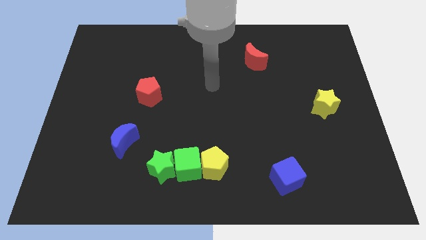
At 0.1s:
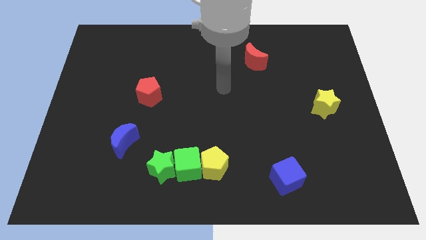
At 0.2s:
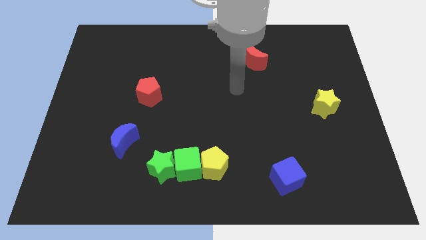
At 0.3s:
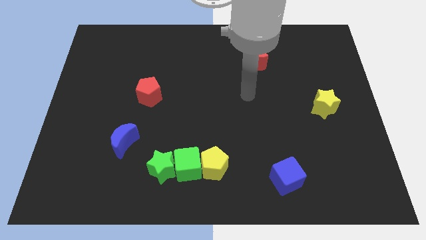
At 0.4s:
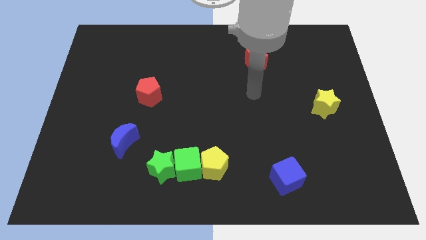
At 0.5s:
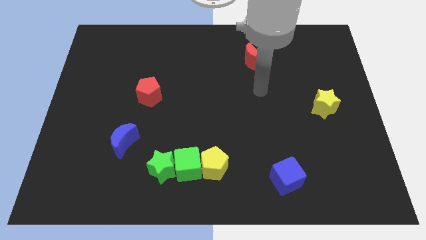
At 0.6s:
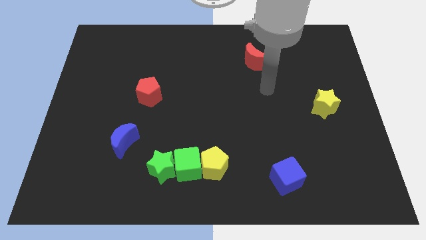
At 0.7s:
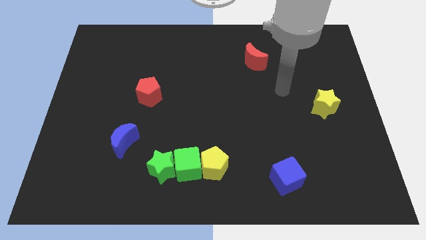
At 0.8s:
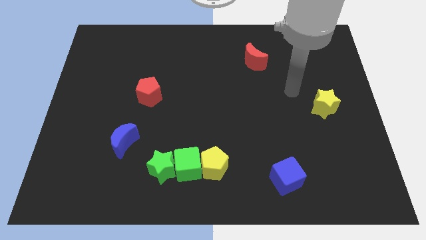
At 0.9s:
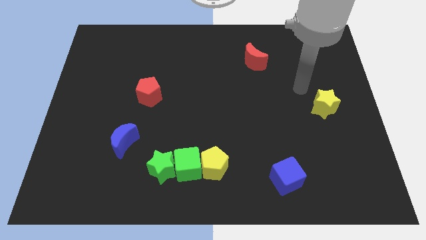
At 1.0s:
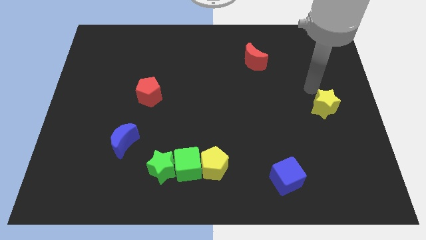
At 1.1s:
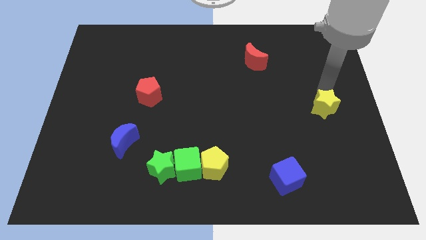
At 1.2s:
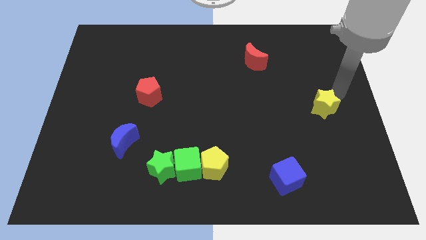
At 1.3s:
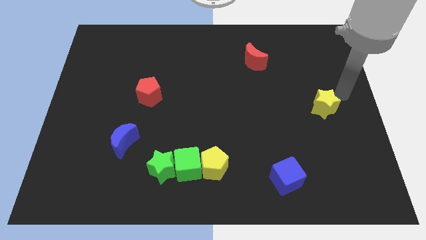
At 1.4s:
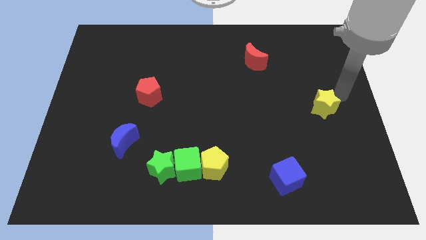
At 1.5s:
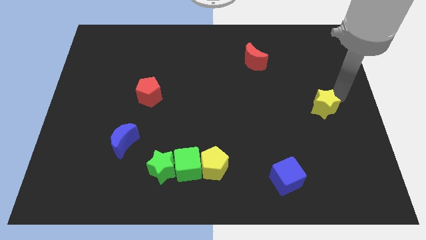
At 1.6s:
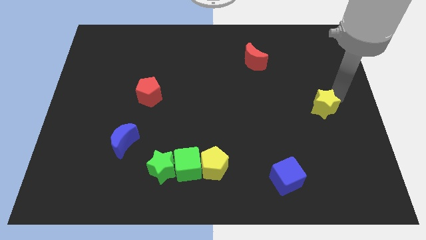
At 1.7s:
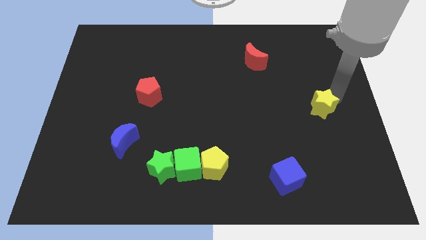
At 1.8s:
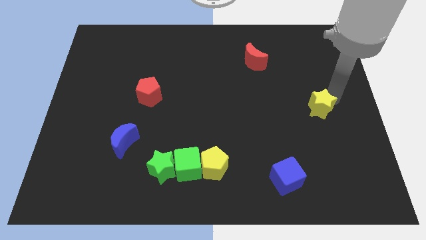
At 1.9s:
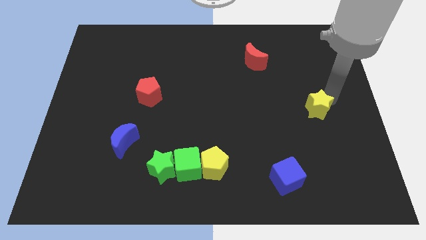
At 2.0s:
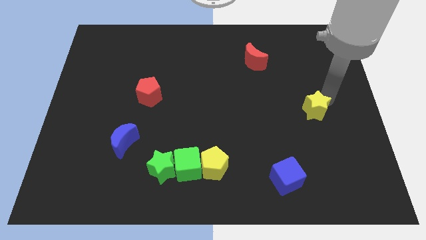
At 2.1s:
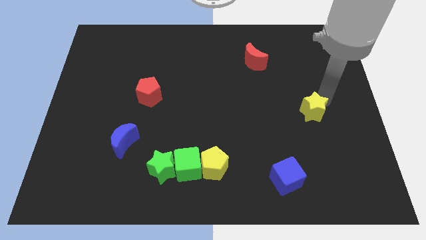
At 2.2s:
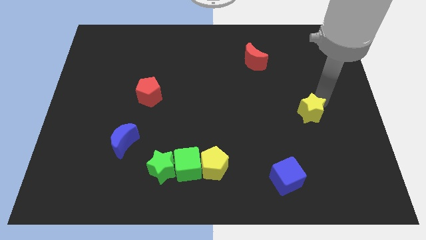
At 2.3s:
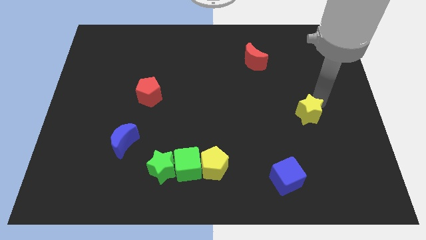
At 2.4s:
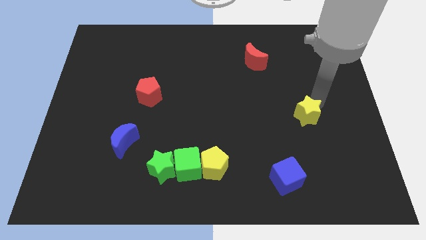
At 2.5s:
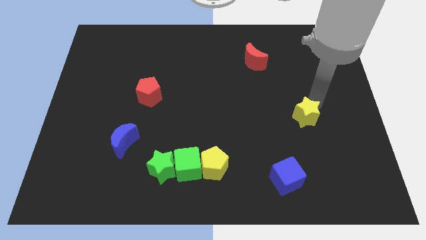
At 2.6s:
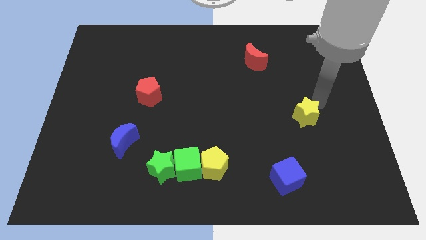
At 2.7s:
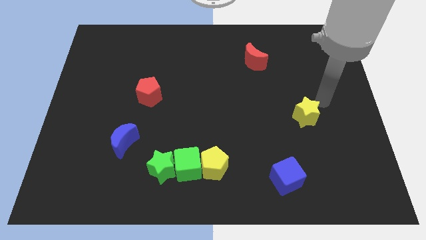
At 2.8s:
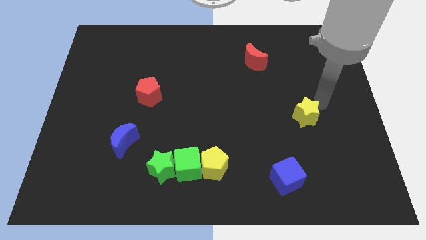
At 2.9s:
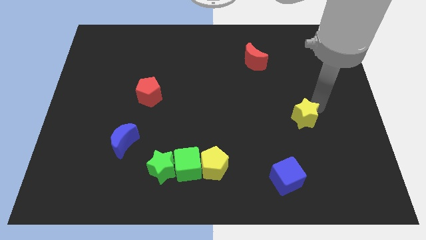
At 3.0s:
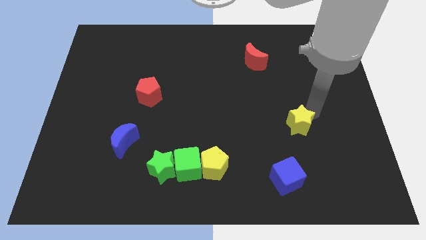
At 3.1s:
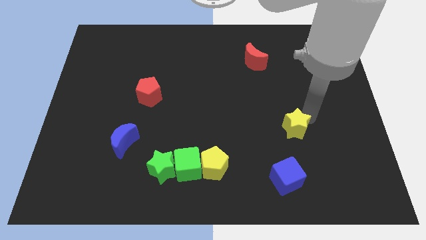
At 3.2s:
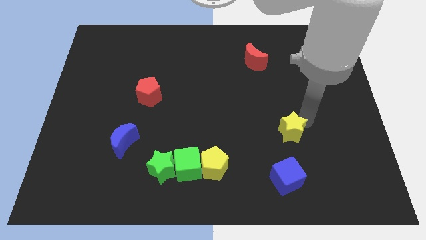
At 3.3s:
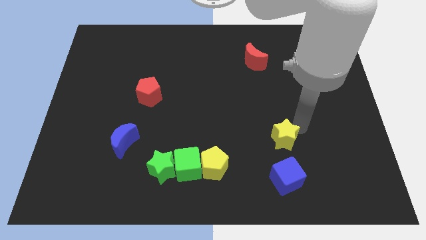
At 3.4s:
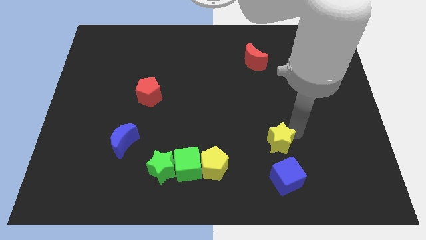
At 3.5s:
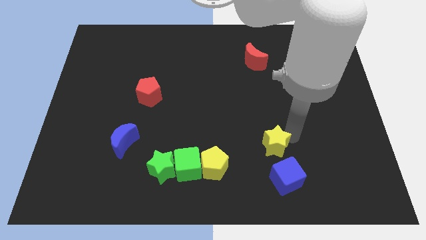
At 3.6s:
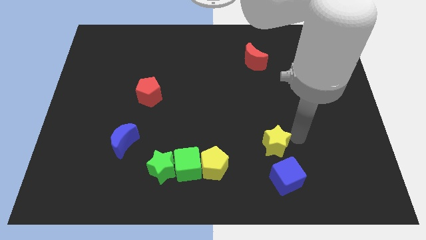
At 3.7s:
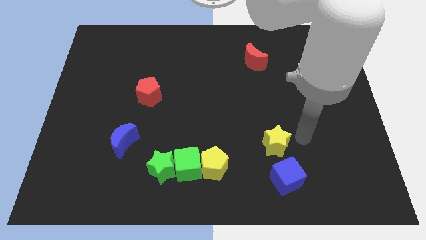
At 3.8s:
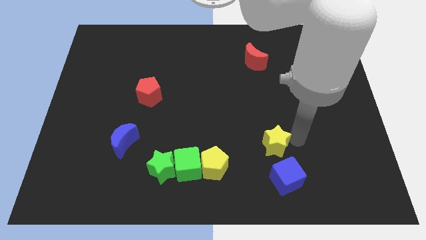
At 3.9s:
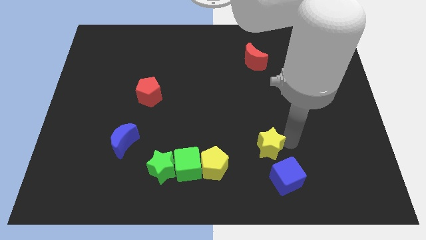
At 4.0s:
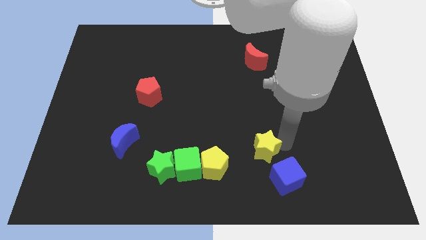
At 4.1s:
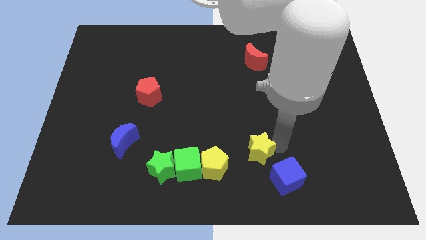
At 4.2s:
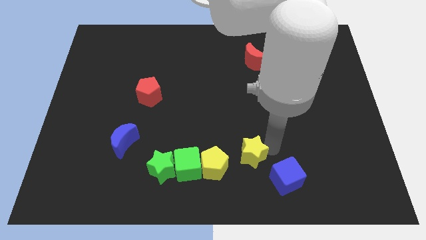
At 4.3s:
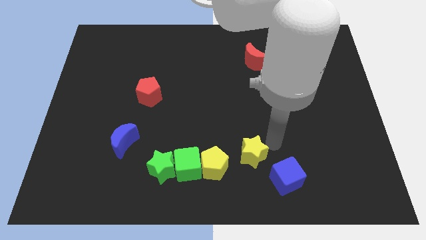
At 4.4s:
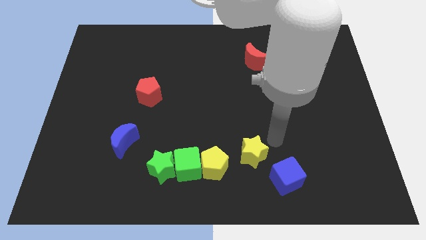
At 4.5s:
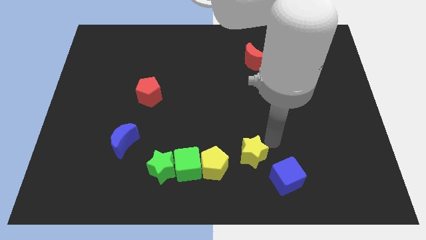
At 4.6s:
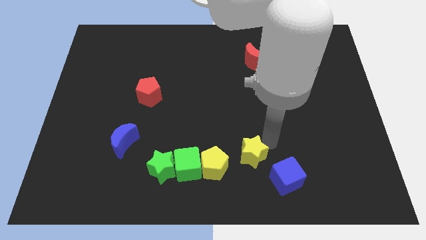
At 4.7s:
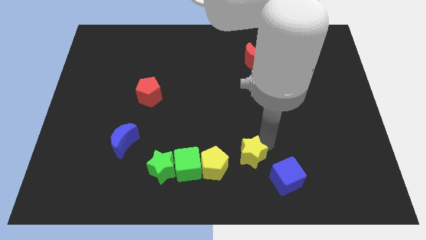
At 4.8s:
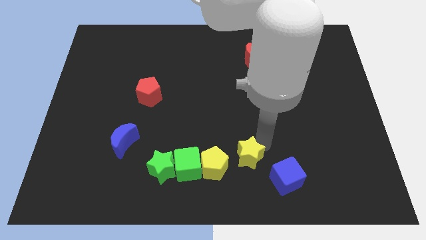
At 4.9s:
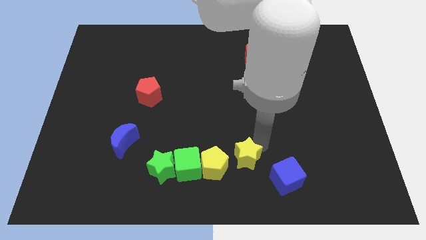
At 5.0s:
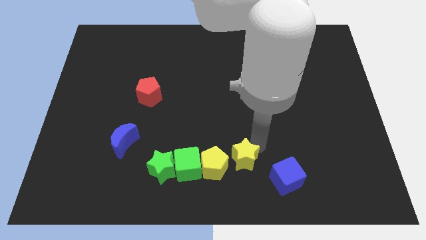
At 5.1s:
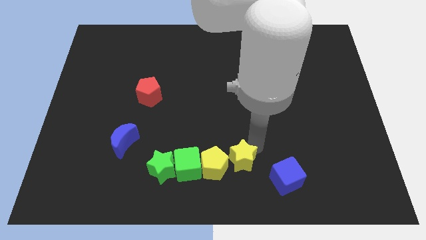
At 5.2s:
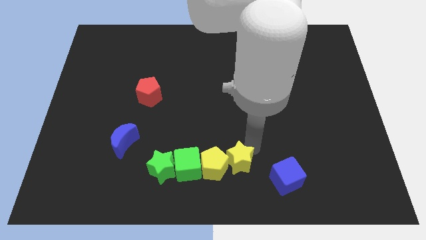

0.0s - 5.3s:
push the yellow star to the right side of the green star
